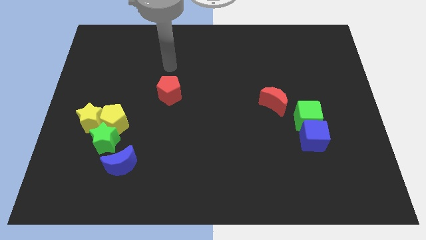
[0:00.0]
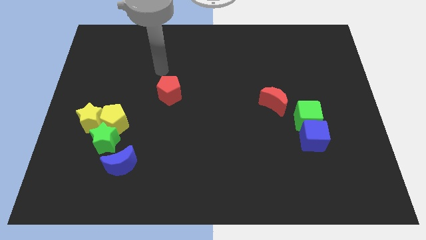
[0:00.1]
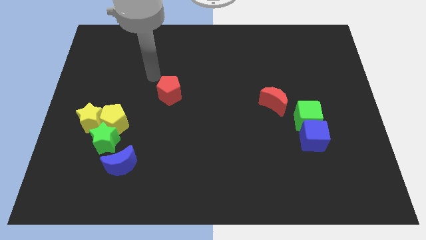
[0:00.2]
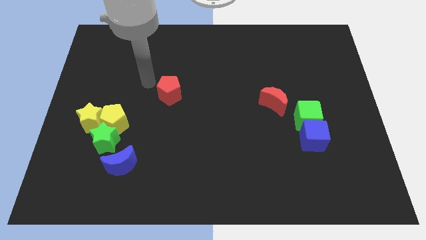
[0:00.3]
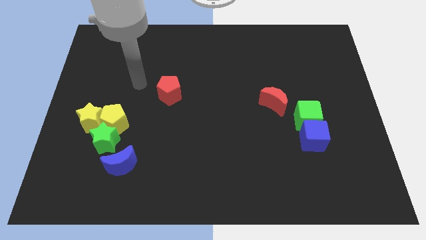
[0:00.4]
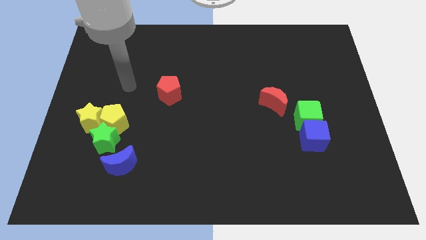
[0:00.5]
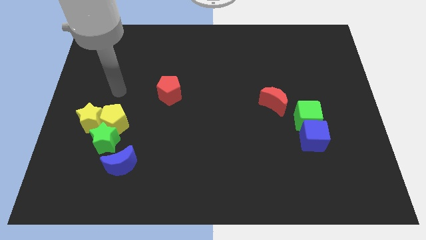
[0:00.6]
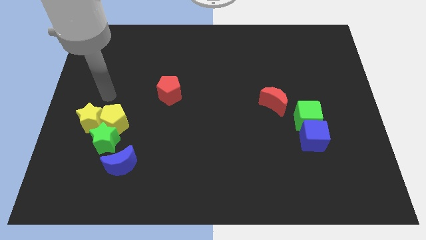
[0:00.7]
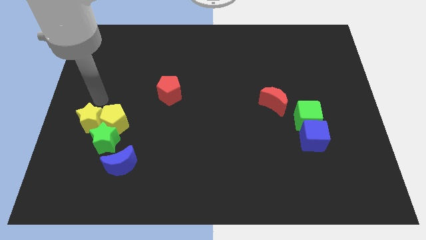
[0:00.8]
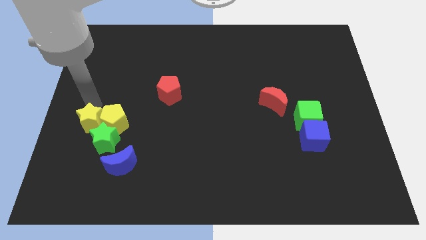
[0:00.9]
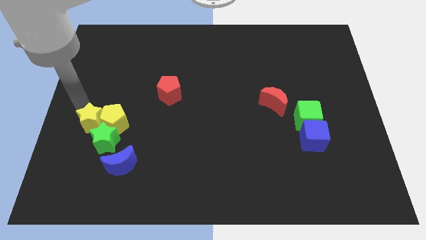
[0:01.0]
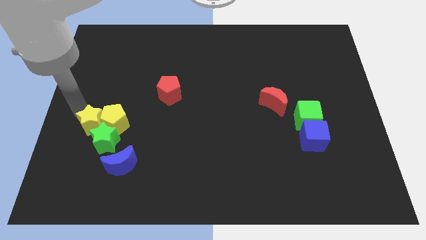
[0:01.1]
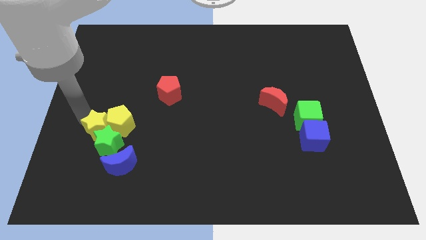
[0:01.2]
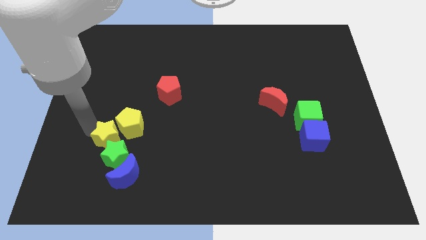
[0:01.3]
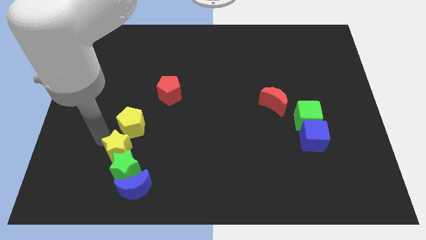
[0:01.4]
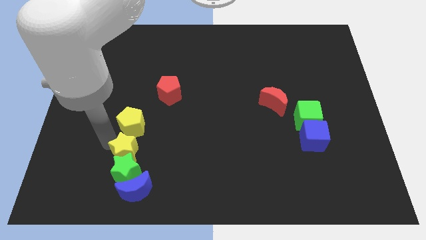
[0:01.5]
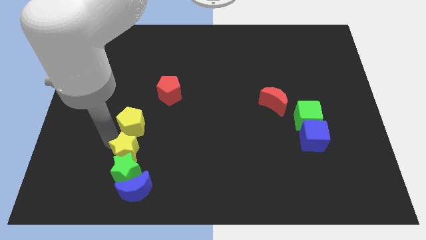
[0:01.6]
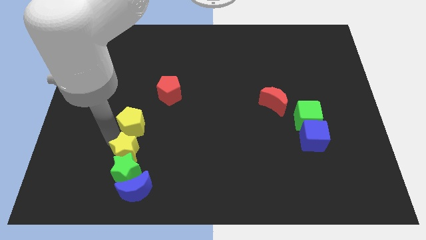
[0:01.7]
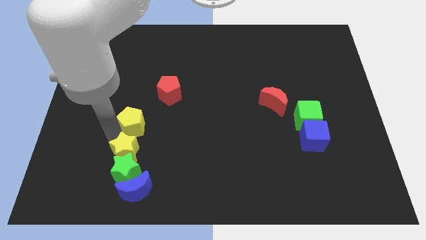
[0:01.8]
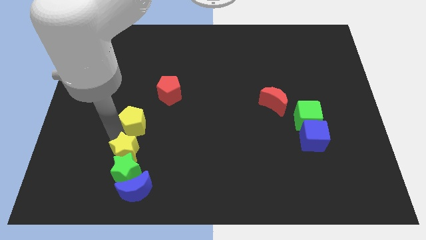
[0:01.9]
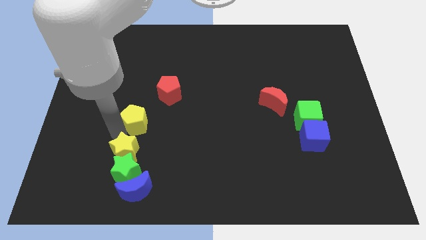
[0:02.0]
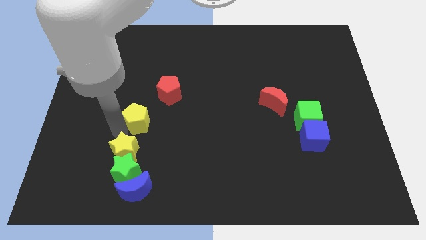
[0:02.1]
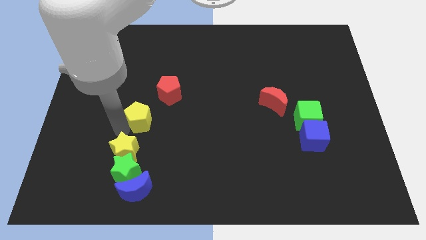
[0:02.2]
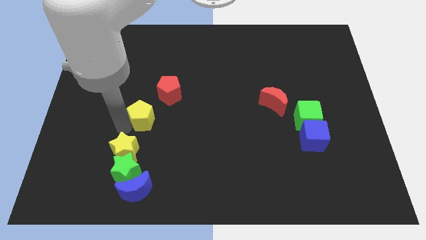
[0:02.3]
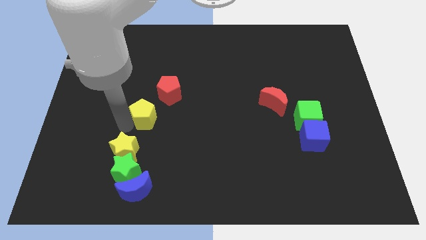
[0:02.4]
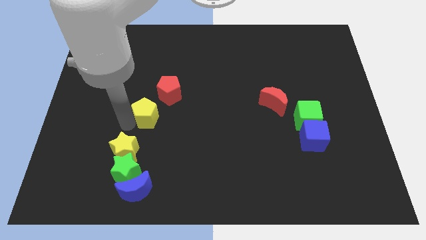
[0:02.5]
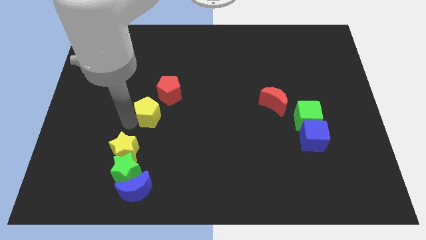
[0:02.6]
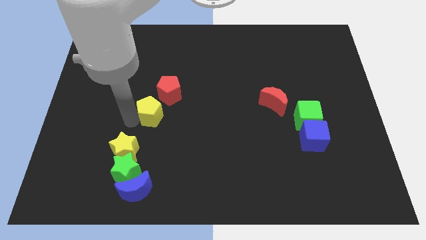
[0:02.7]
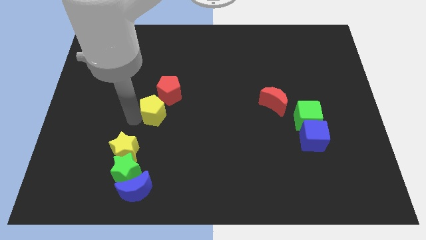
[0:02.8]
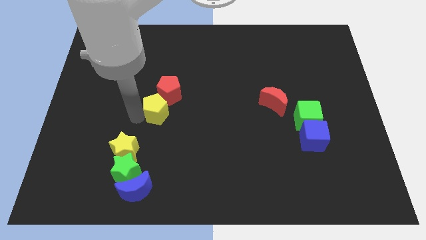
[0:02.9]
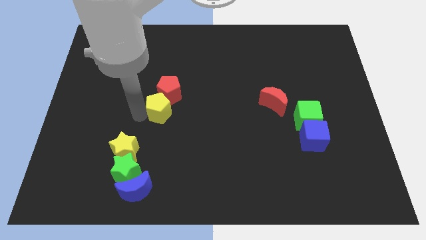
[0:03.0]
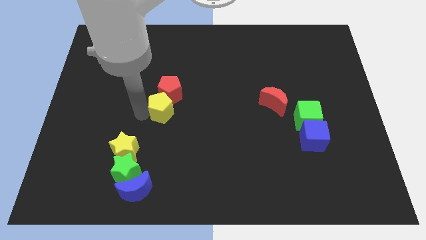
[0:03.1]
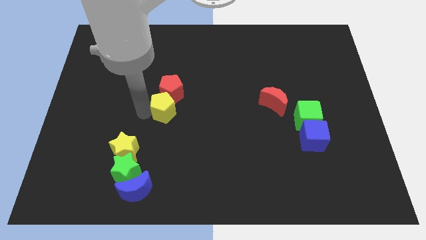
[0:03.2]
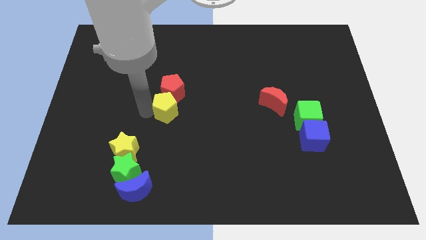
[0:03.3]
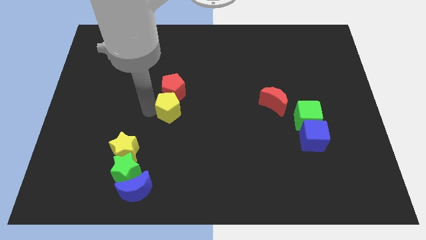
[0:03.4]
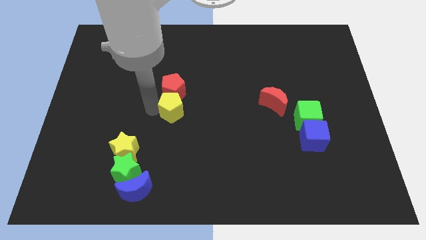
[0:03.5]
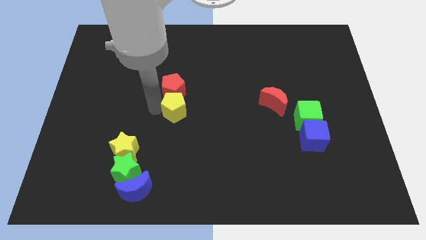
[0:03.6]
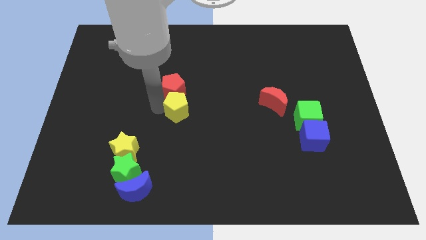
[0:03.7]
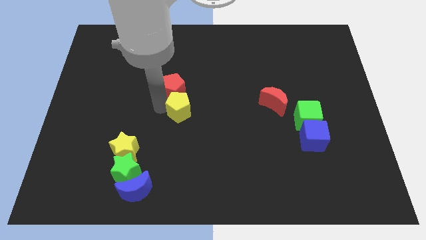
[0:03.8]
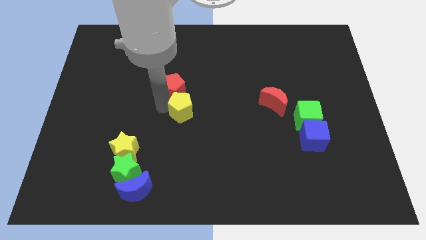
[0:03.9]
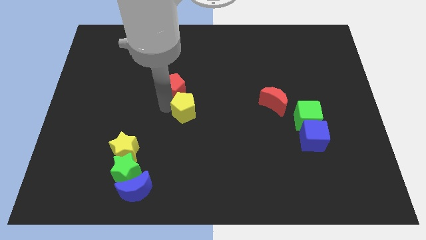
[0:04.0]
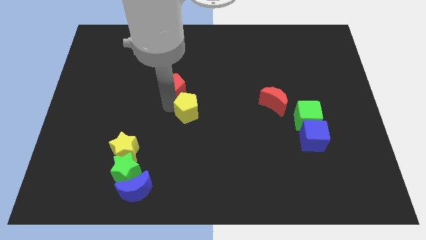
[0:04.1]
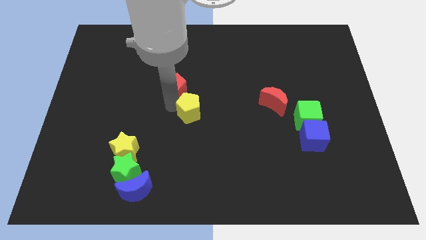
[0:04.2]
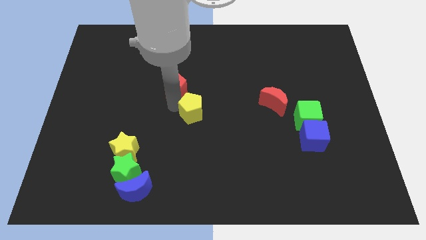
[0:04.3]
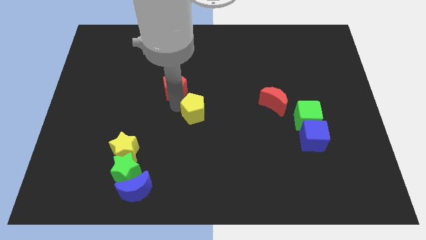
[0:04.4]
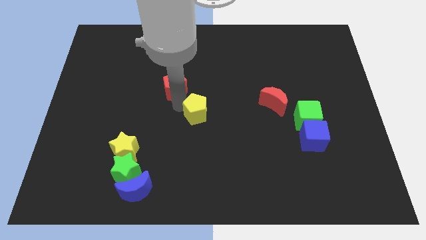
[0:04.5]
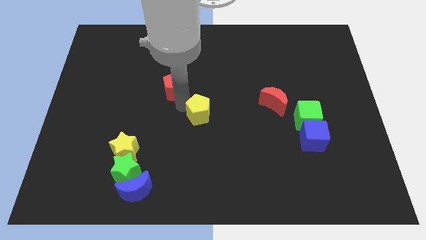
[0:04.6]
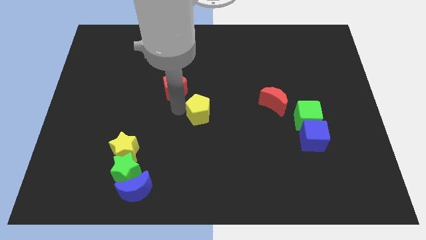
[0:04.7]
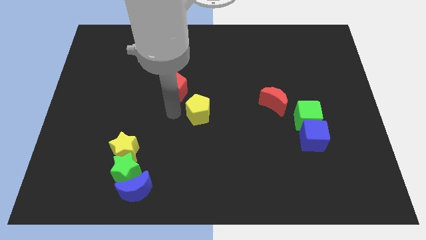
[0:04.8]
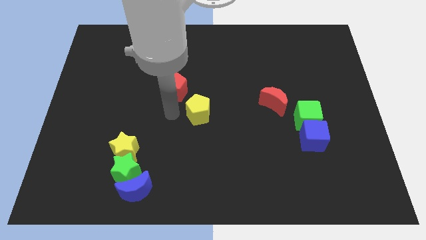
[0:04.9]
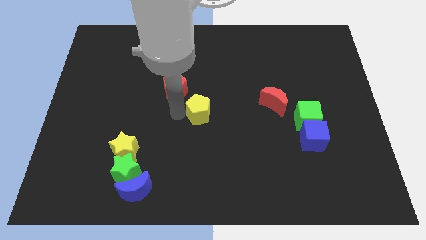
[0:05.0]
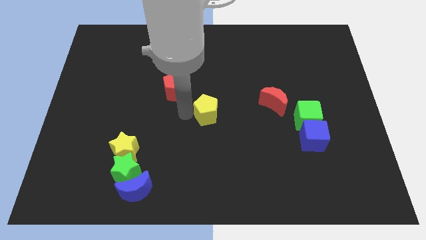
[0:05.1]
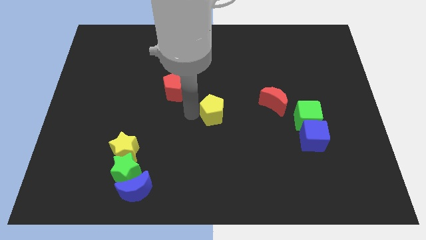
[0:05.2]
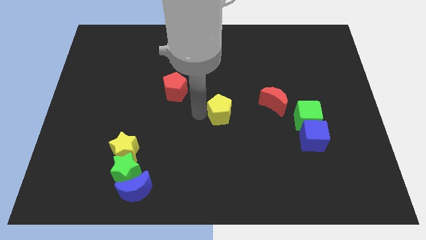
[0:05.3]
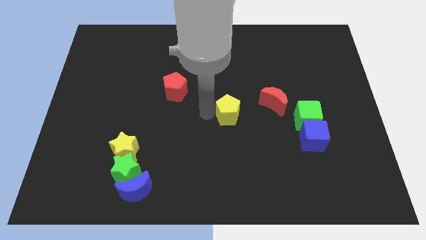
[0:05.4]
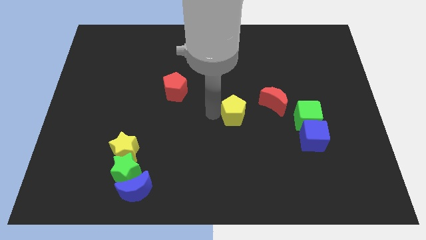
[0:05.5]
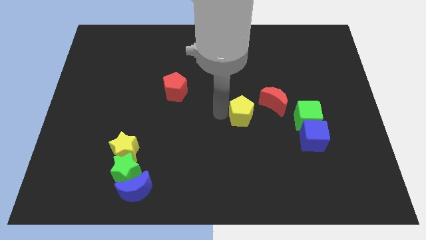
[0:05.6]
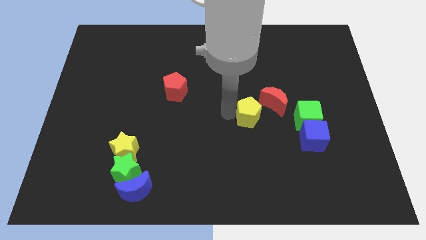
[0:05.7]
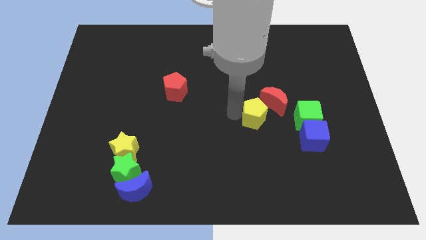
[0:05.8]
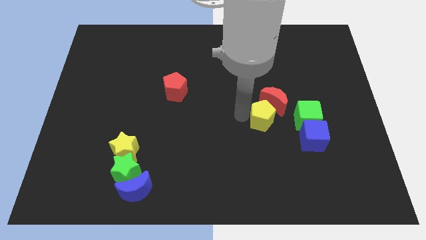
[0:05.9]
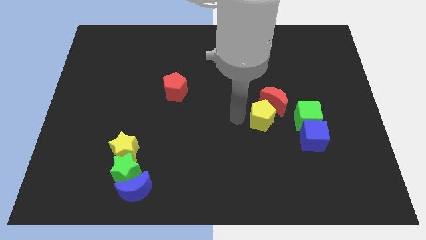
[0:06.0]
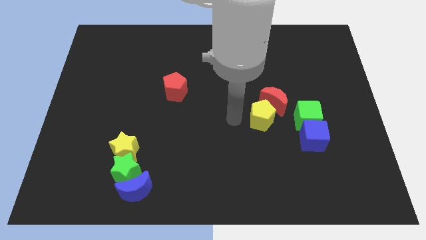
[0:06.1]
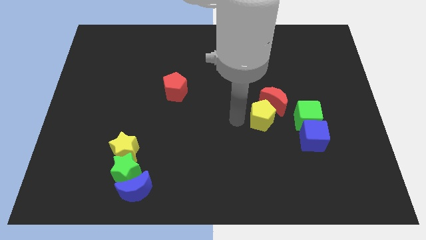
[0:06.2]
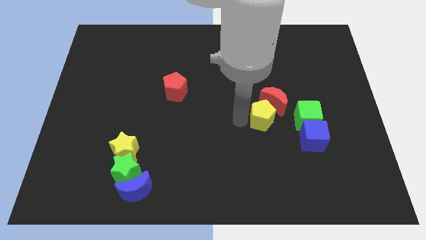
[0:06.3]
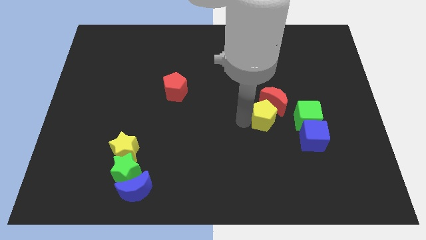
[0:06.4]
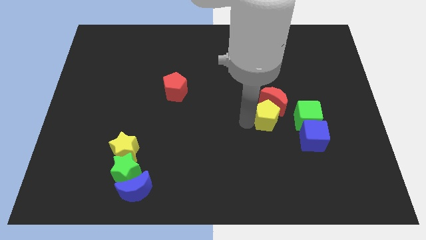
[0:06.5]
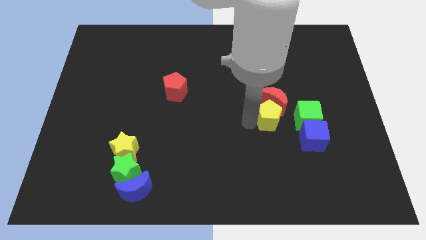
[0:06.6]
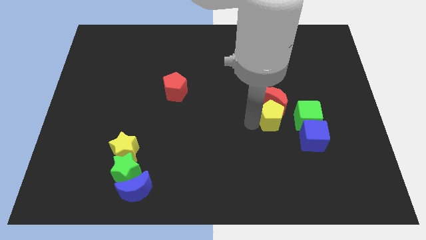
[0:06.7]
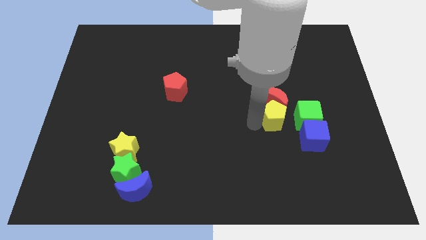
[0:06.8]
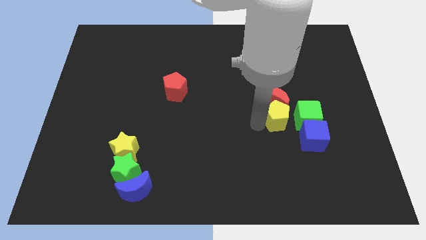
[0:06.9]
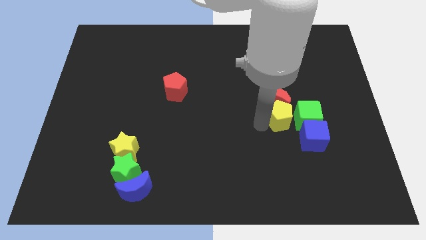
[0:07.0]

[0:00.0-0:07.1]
move the yellow pentagon towards the green cube
